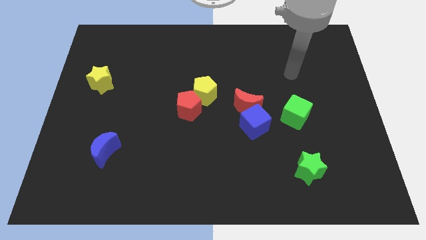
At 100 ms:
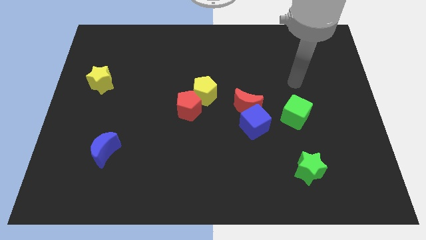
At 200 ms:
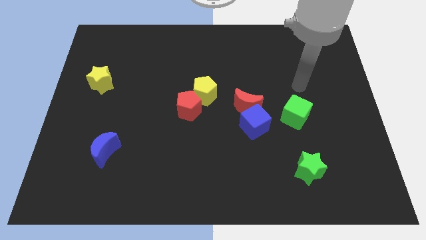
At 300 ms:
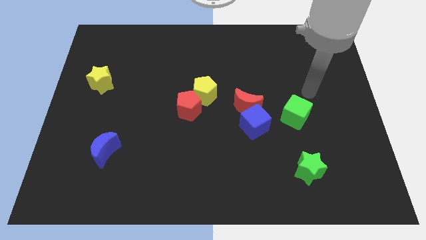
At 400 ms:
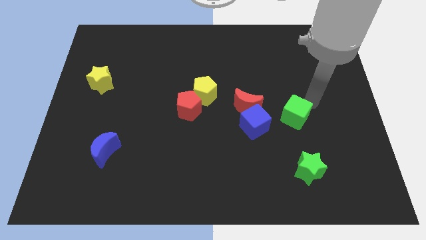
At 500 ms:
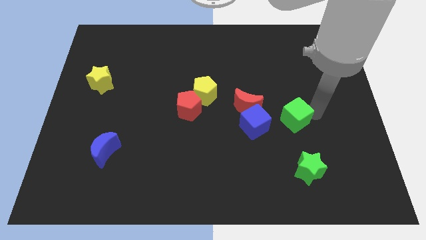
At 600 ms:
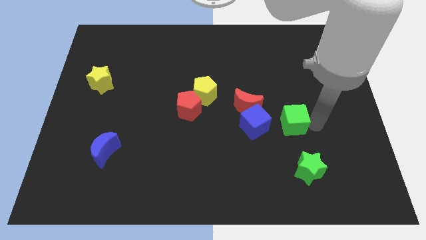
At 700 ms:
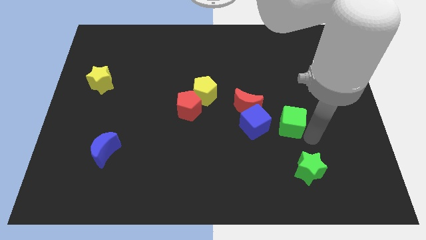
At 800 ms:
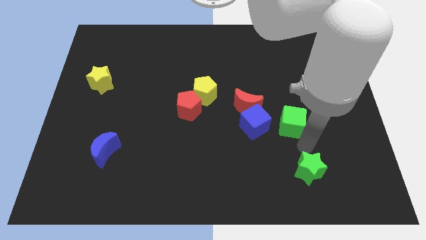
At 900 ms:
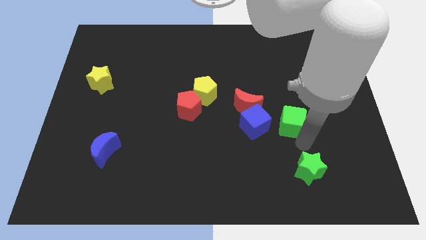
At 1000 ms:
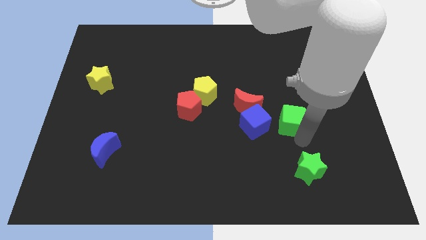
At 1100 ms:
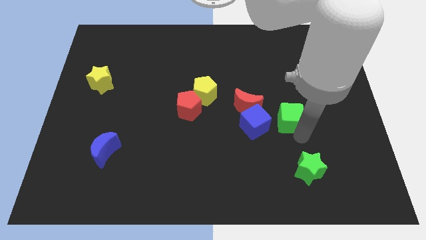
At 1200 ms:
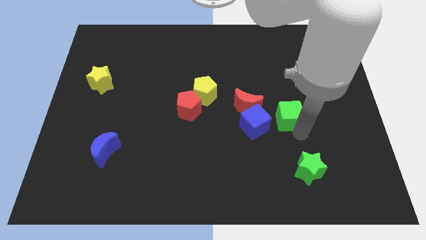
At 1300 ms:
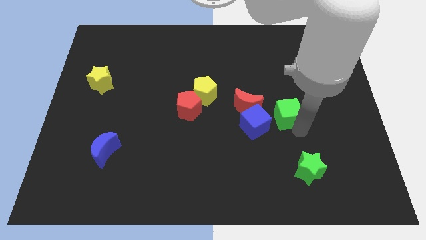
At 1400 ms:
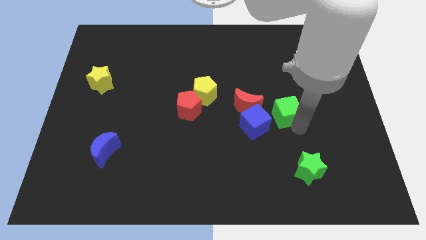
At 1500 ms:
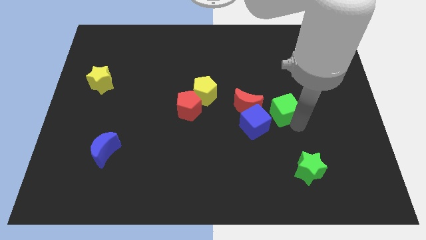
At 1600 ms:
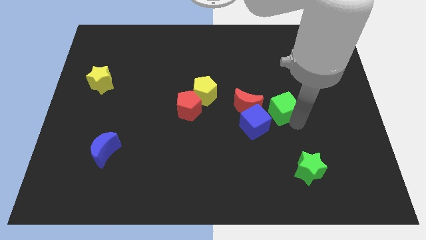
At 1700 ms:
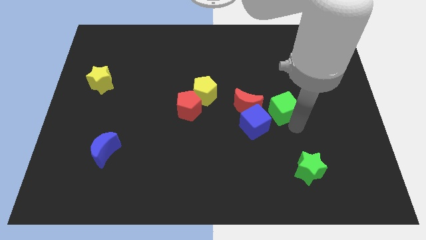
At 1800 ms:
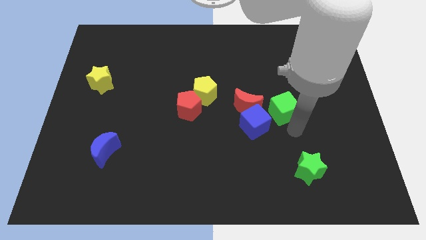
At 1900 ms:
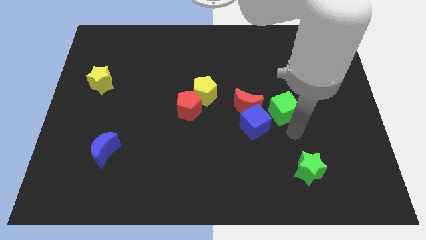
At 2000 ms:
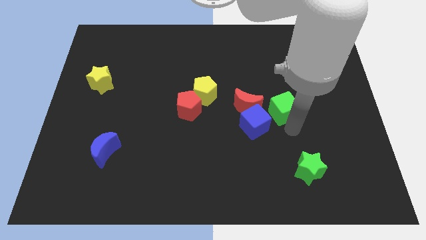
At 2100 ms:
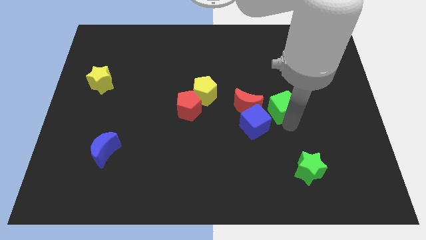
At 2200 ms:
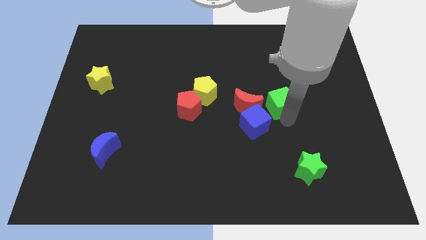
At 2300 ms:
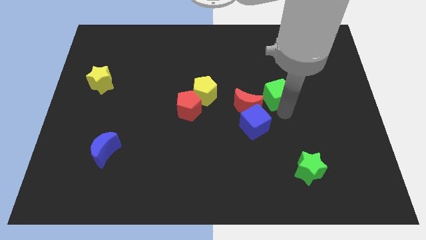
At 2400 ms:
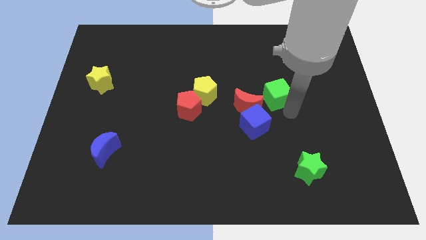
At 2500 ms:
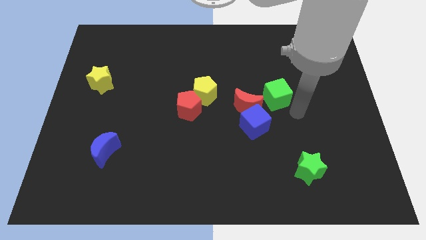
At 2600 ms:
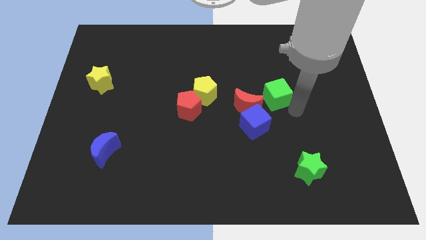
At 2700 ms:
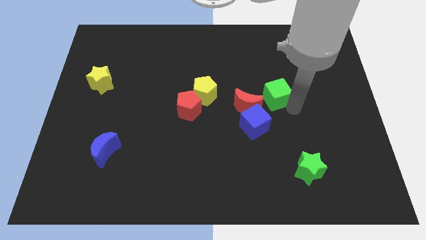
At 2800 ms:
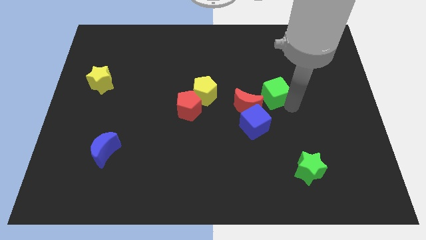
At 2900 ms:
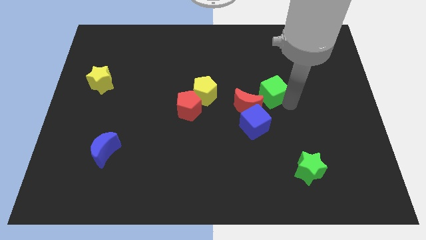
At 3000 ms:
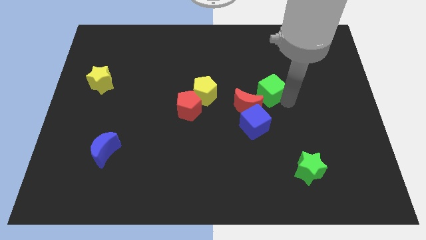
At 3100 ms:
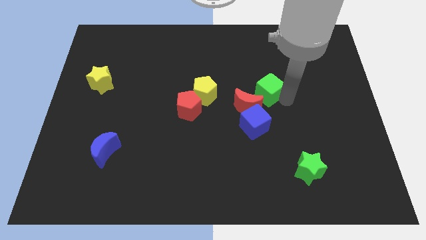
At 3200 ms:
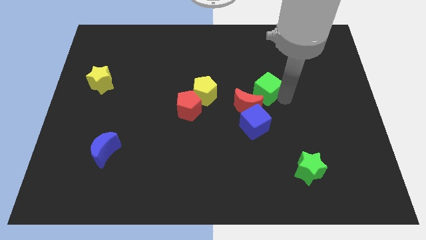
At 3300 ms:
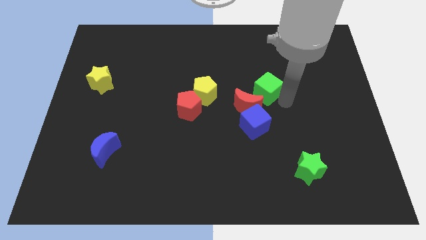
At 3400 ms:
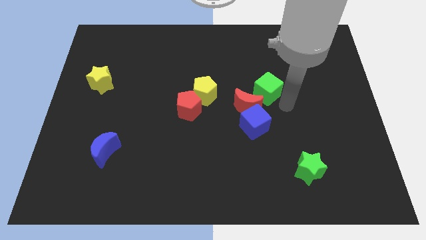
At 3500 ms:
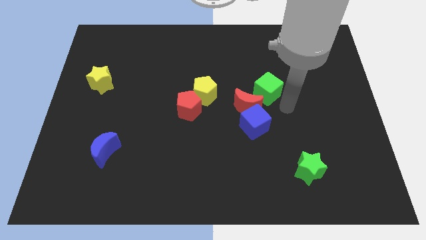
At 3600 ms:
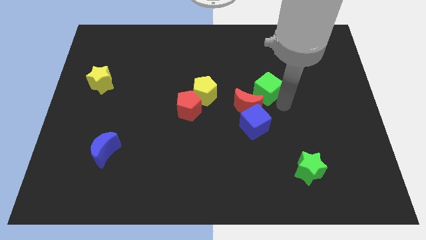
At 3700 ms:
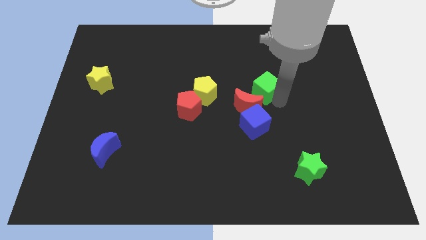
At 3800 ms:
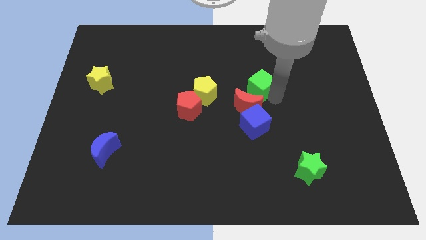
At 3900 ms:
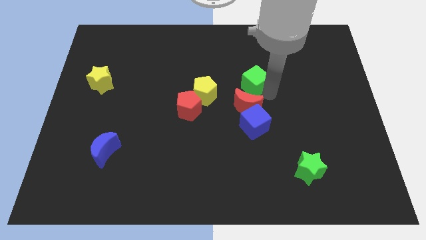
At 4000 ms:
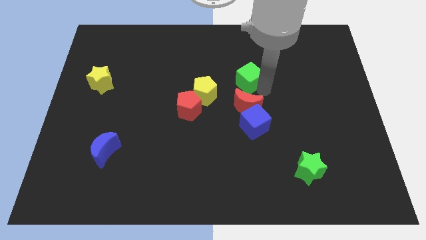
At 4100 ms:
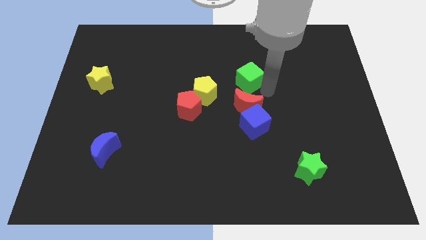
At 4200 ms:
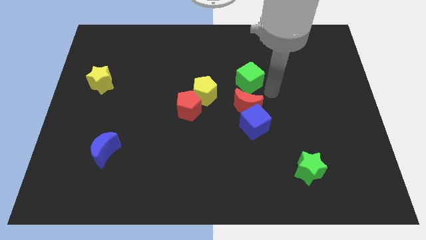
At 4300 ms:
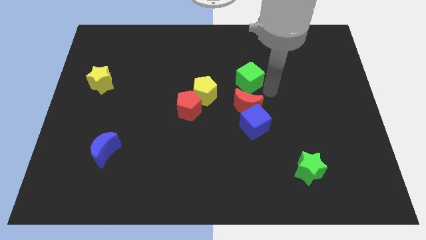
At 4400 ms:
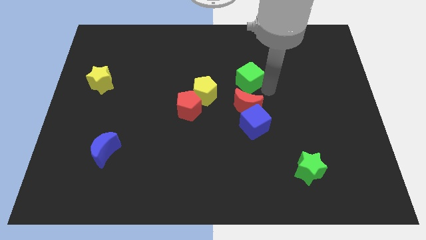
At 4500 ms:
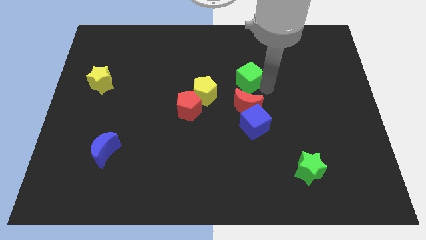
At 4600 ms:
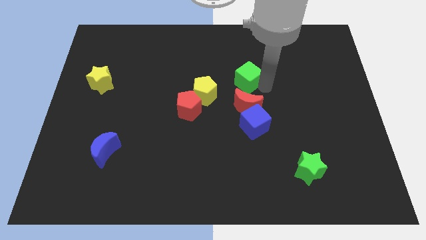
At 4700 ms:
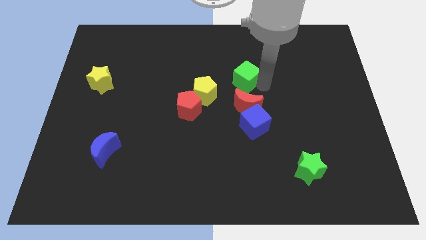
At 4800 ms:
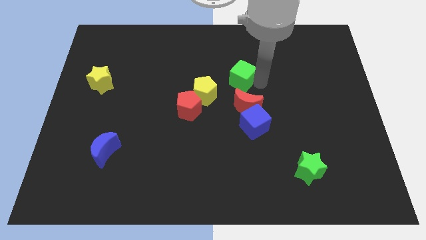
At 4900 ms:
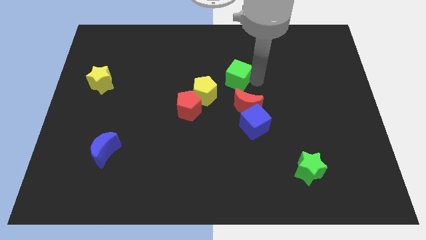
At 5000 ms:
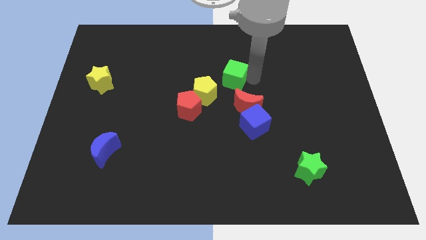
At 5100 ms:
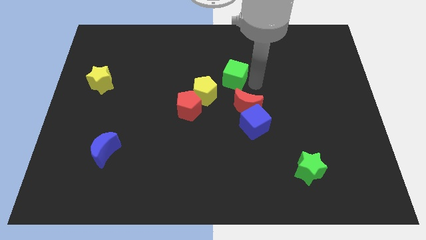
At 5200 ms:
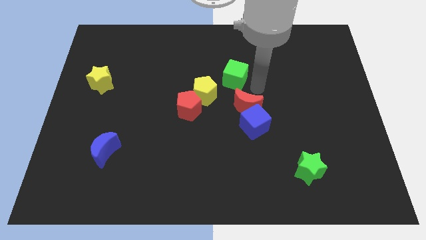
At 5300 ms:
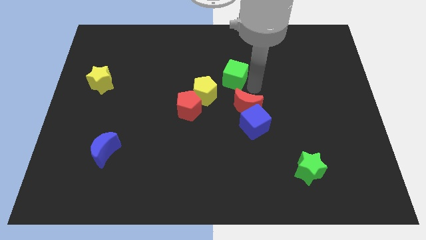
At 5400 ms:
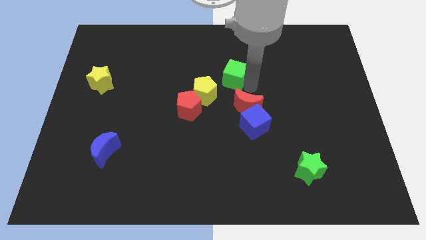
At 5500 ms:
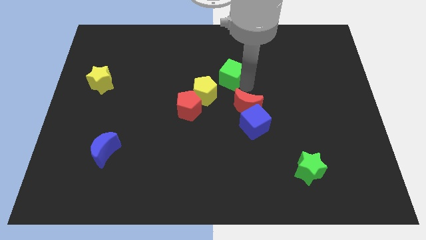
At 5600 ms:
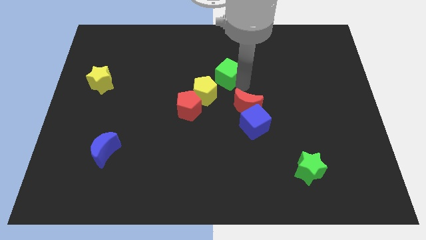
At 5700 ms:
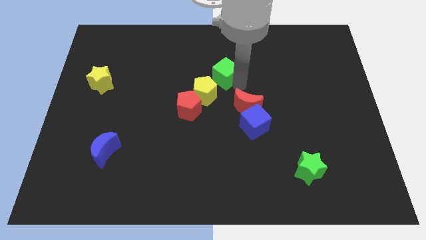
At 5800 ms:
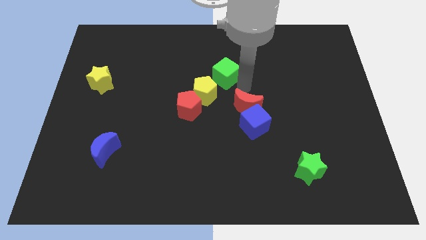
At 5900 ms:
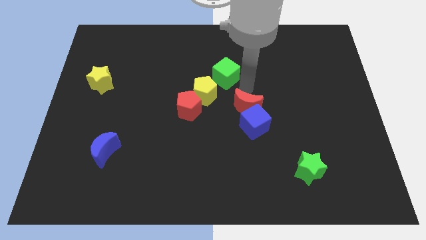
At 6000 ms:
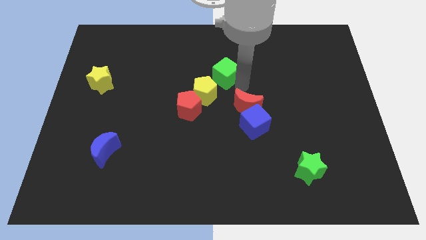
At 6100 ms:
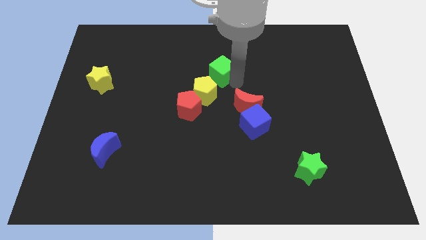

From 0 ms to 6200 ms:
slide the green cube to the top side of the yellow pentagon

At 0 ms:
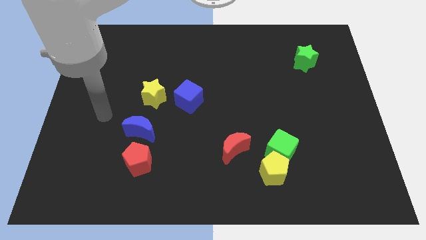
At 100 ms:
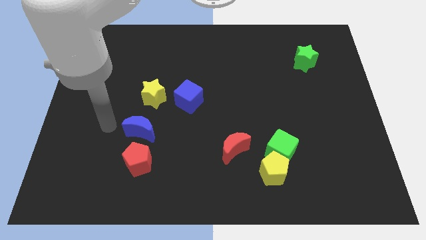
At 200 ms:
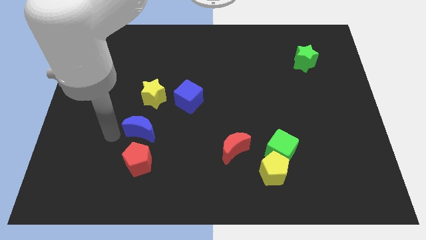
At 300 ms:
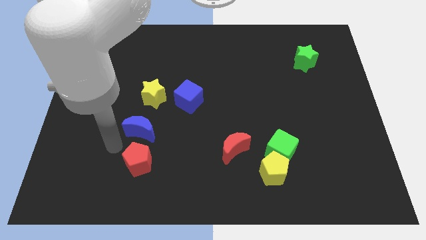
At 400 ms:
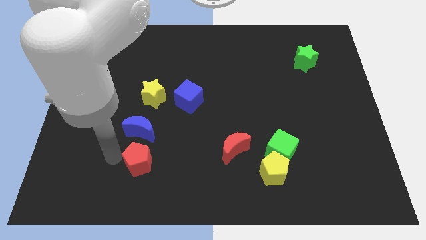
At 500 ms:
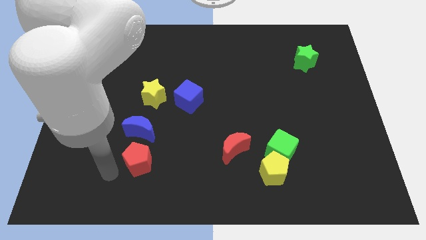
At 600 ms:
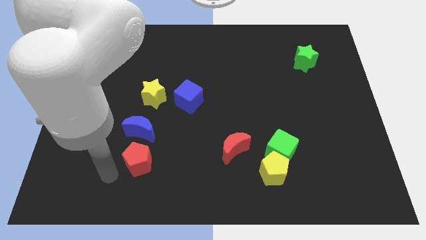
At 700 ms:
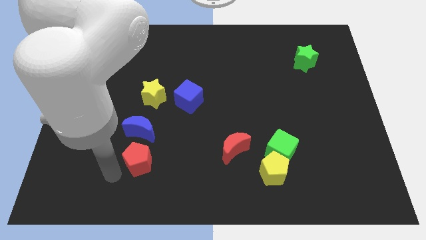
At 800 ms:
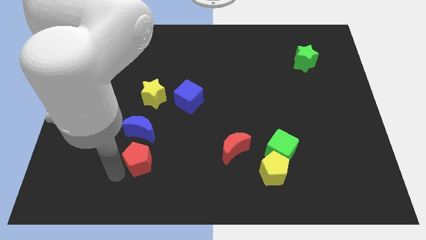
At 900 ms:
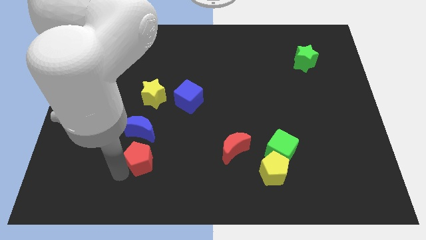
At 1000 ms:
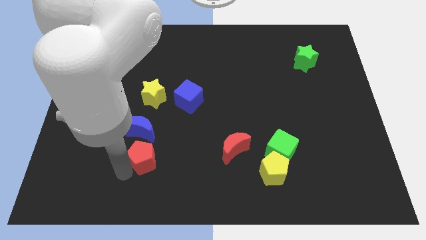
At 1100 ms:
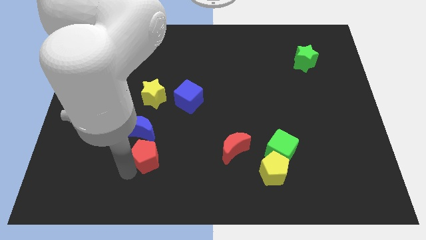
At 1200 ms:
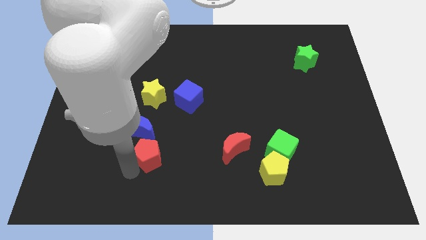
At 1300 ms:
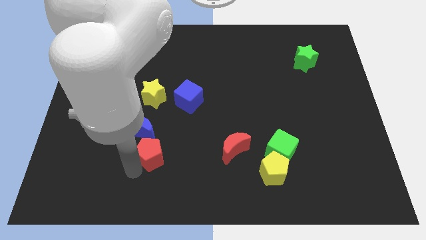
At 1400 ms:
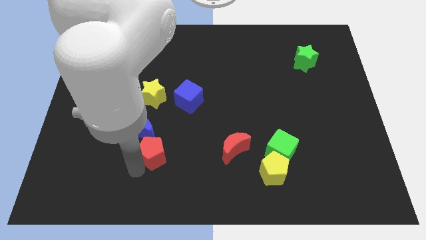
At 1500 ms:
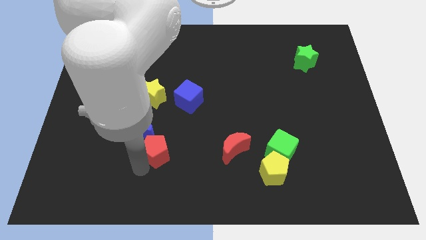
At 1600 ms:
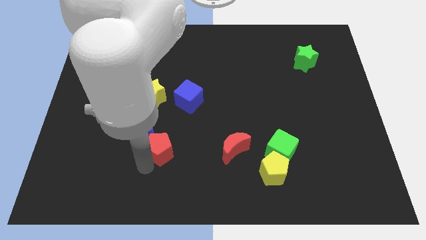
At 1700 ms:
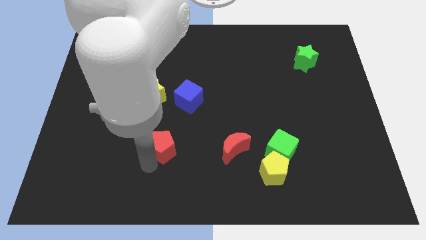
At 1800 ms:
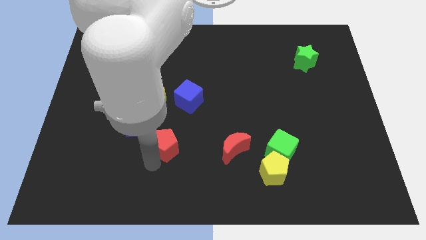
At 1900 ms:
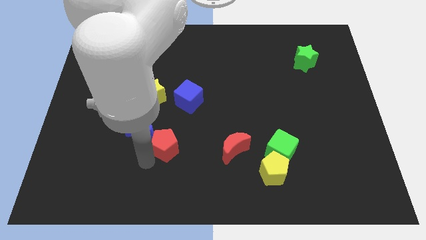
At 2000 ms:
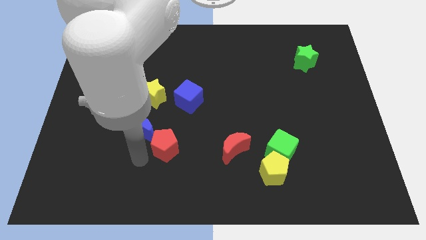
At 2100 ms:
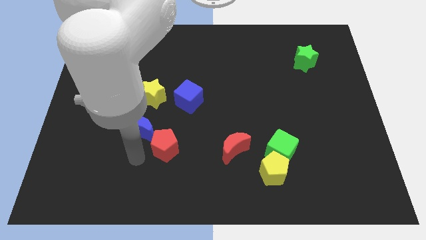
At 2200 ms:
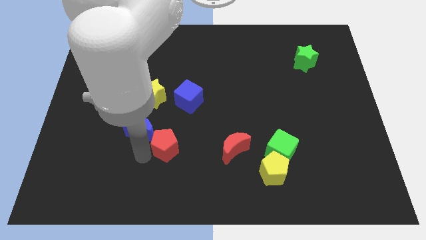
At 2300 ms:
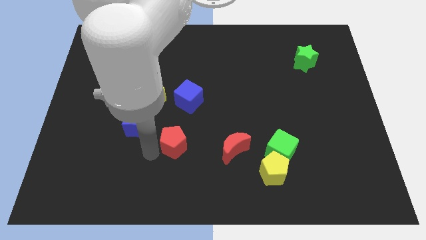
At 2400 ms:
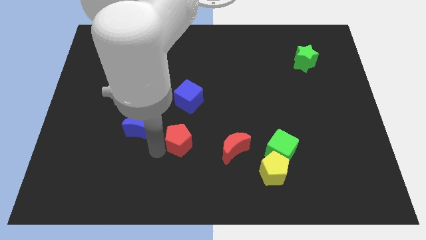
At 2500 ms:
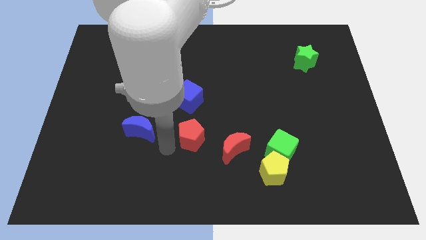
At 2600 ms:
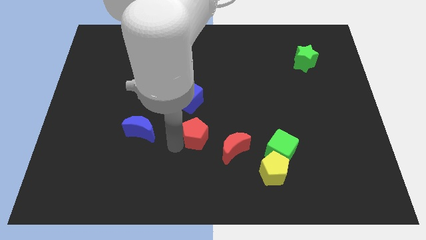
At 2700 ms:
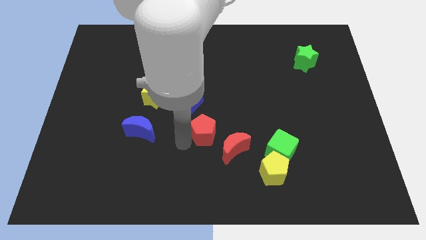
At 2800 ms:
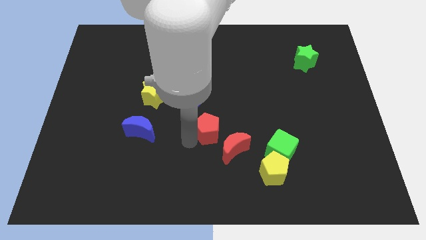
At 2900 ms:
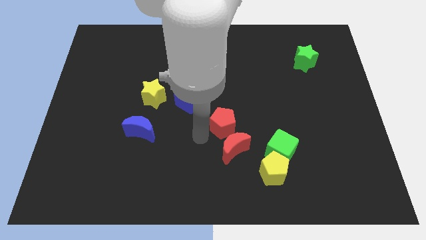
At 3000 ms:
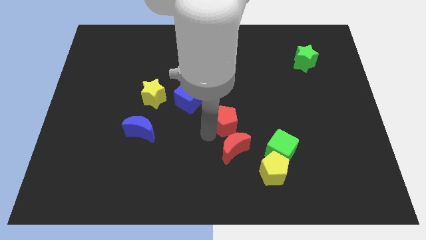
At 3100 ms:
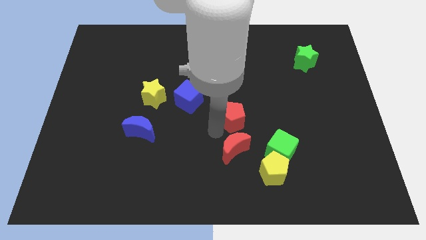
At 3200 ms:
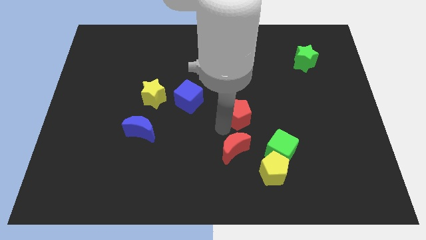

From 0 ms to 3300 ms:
push the red pentagon right of the blue cube
